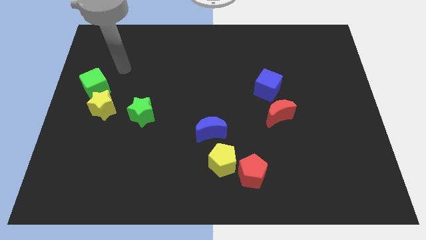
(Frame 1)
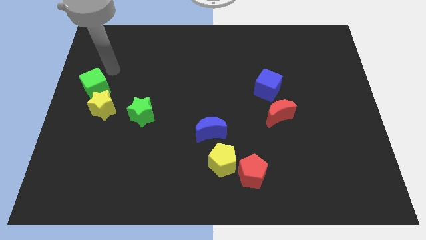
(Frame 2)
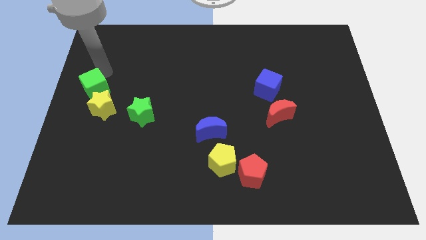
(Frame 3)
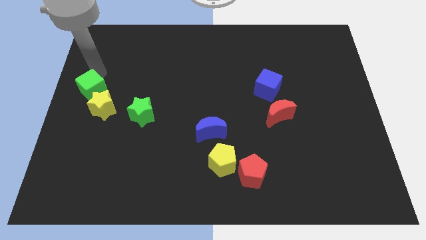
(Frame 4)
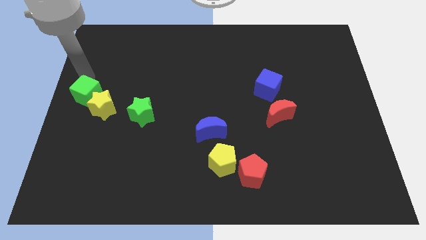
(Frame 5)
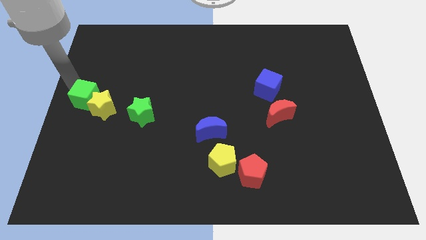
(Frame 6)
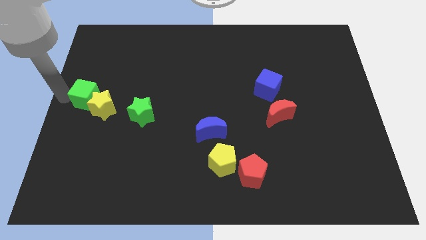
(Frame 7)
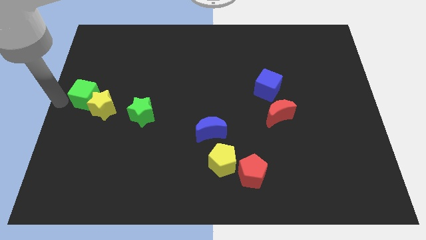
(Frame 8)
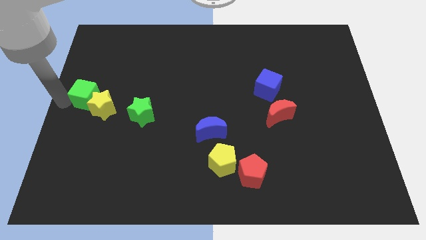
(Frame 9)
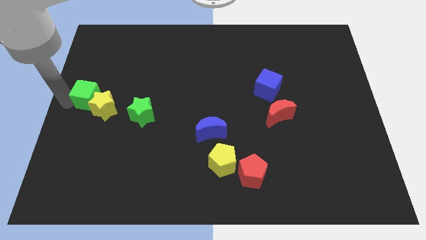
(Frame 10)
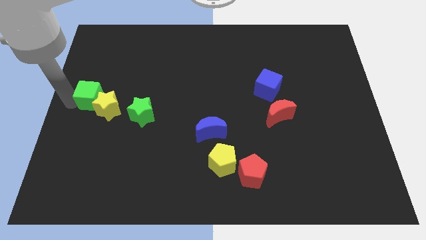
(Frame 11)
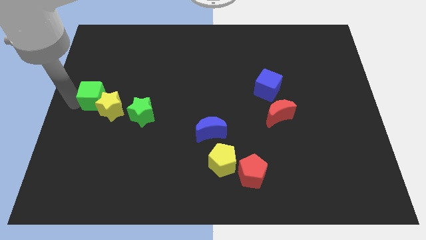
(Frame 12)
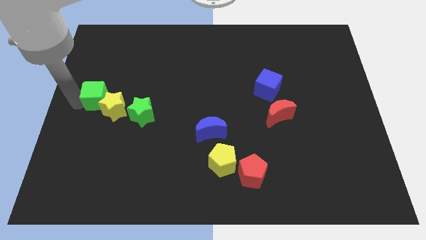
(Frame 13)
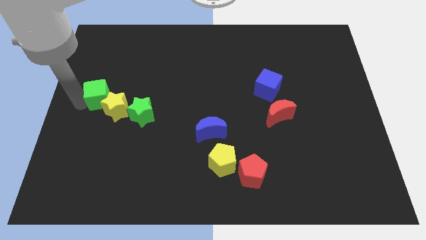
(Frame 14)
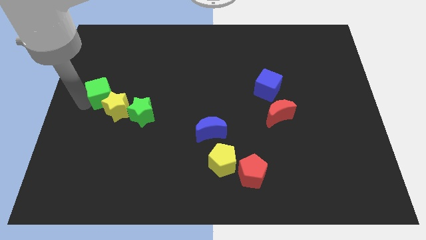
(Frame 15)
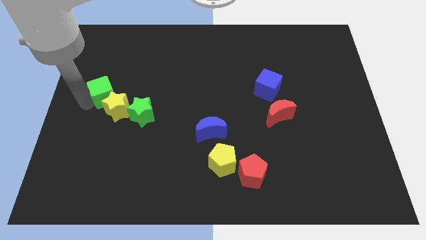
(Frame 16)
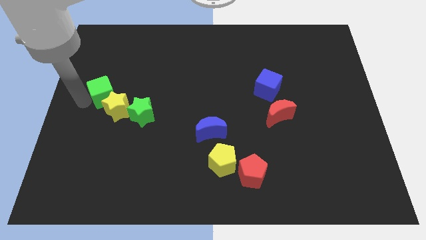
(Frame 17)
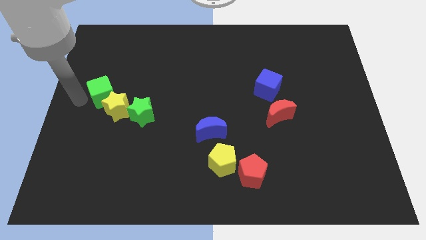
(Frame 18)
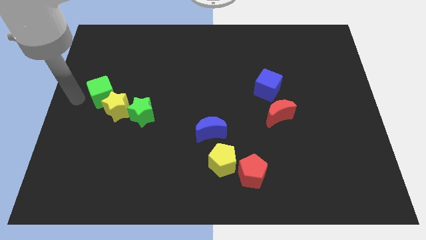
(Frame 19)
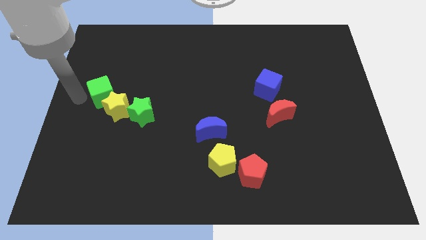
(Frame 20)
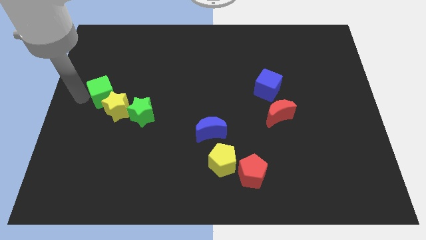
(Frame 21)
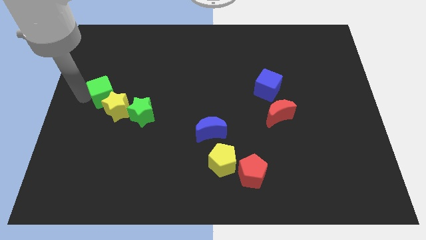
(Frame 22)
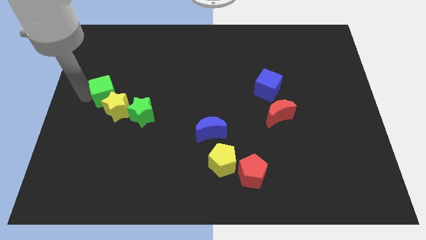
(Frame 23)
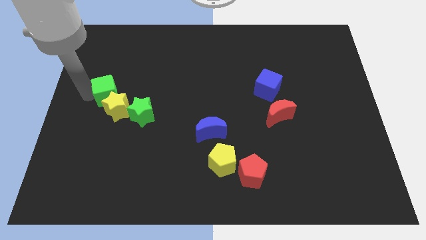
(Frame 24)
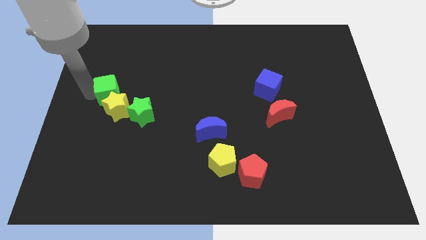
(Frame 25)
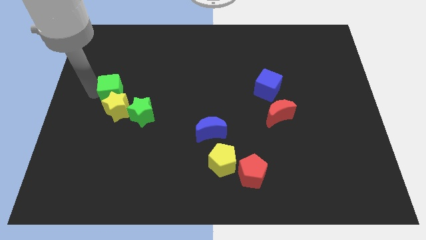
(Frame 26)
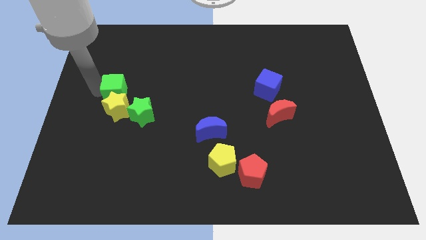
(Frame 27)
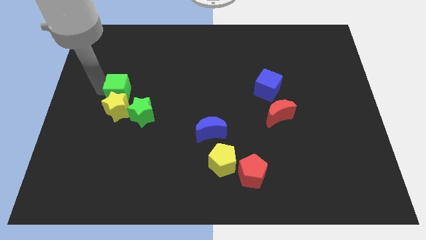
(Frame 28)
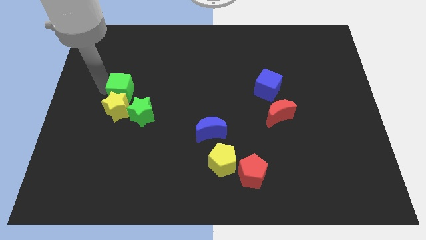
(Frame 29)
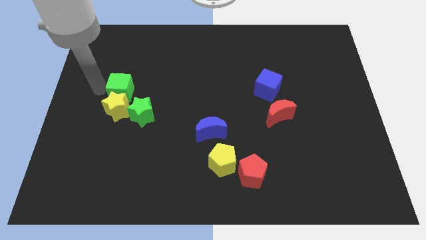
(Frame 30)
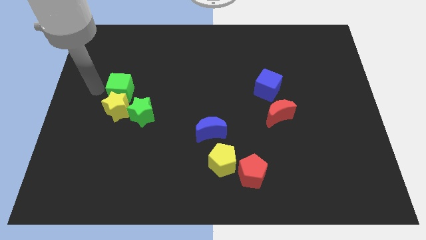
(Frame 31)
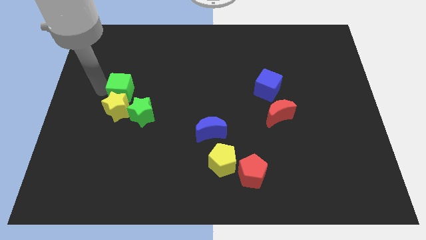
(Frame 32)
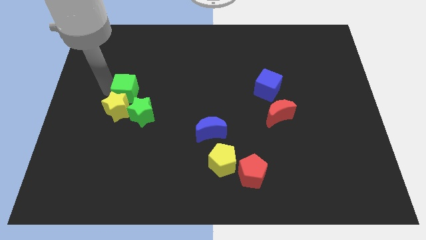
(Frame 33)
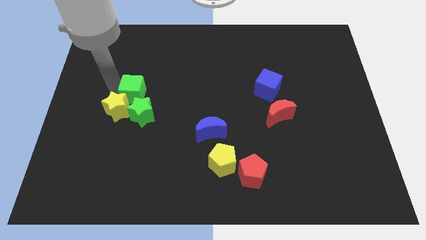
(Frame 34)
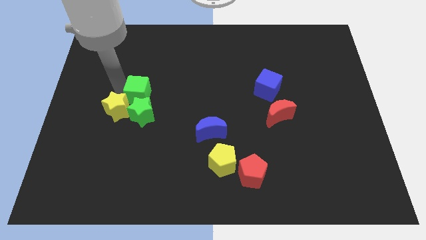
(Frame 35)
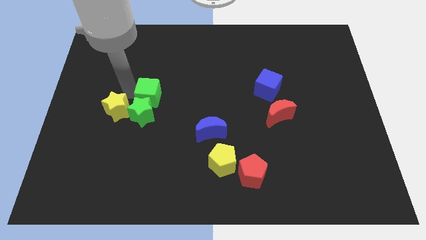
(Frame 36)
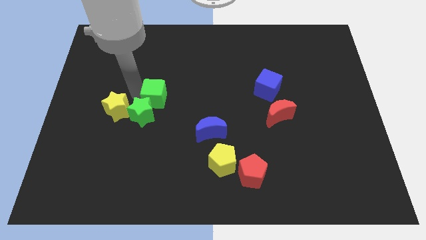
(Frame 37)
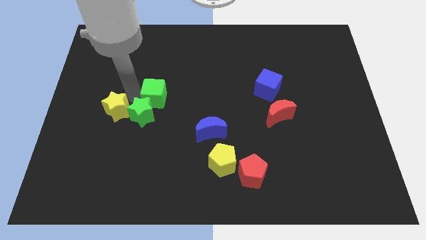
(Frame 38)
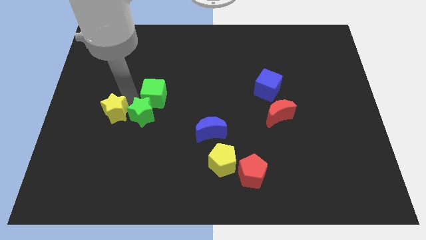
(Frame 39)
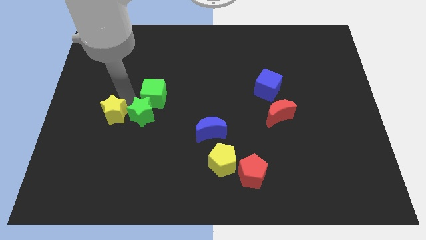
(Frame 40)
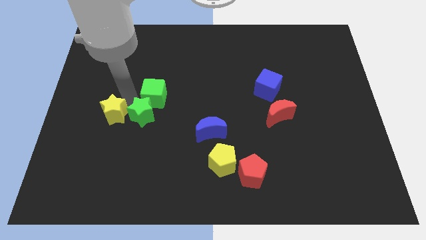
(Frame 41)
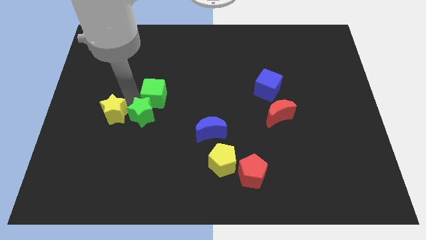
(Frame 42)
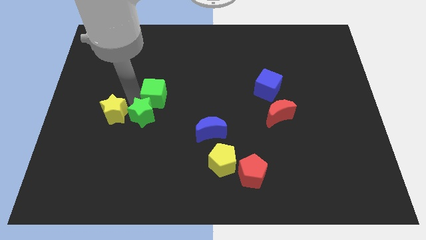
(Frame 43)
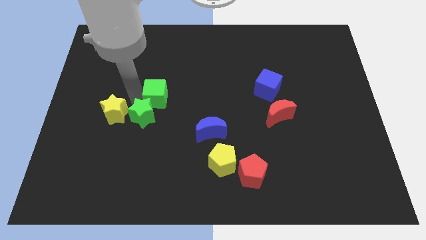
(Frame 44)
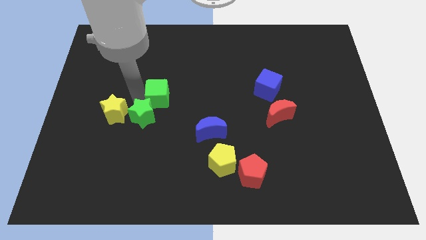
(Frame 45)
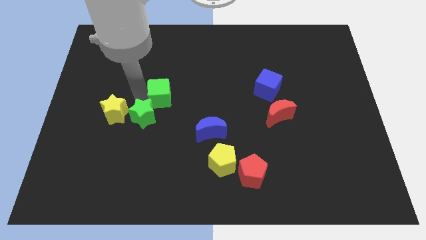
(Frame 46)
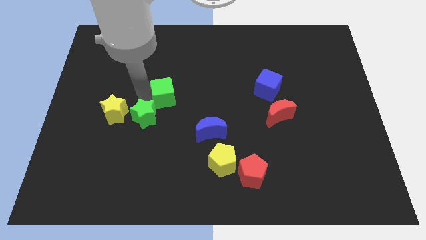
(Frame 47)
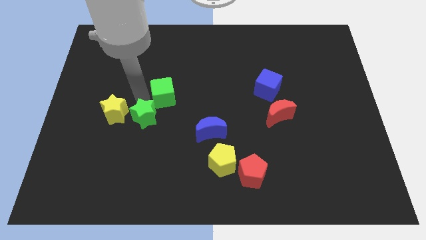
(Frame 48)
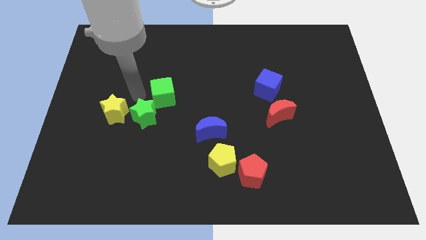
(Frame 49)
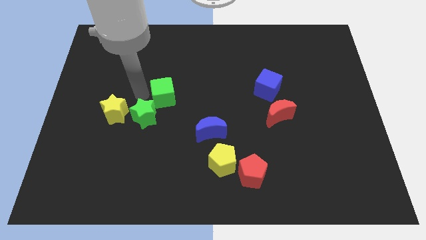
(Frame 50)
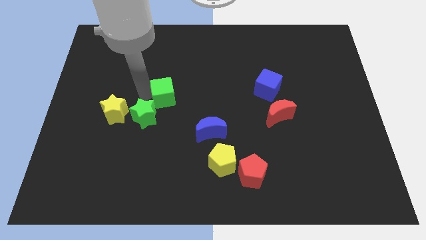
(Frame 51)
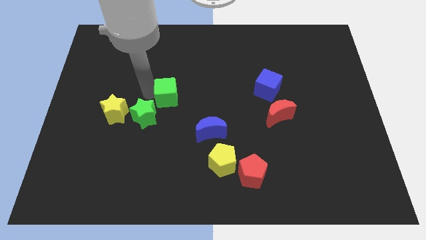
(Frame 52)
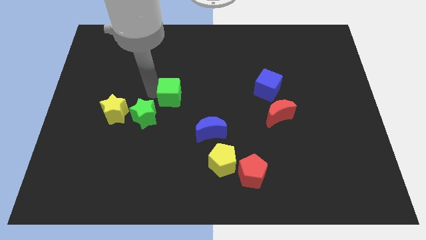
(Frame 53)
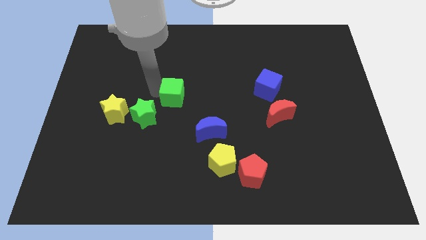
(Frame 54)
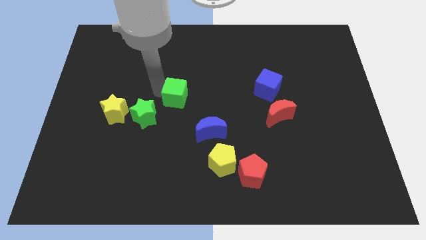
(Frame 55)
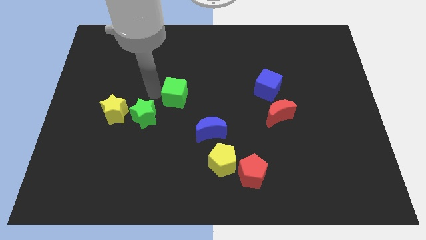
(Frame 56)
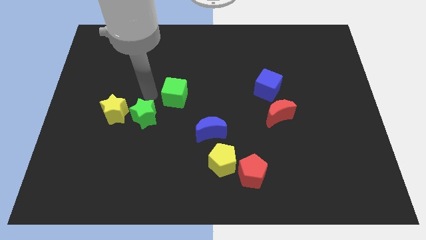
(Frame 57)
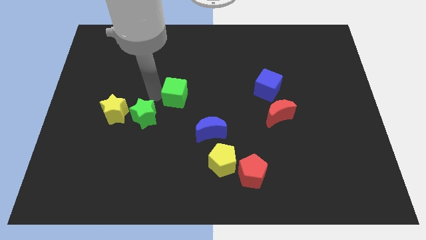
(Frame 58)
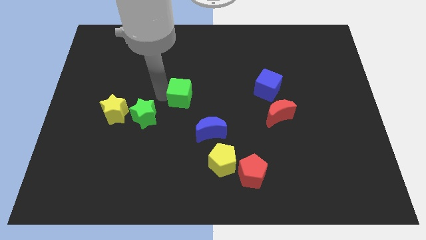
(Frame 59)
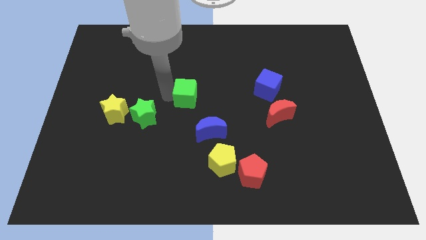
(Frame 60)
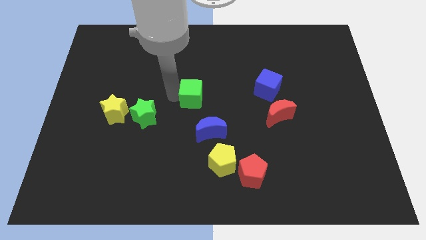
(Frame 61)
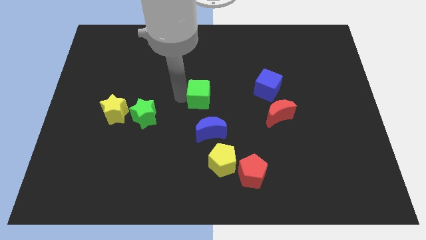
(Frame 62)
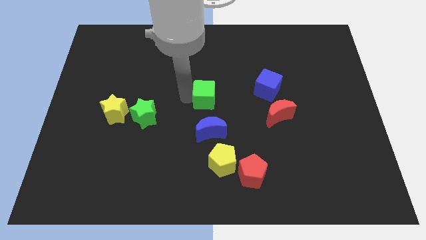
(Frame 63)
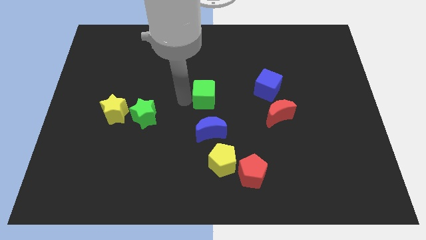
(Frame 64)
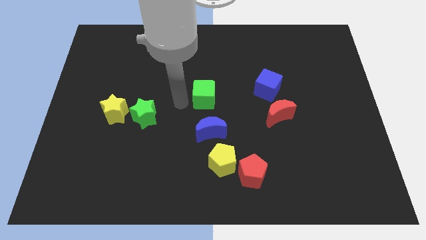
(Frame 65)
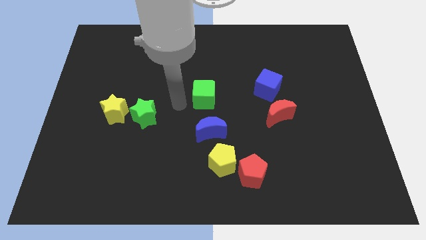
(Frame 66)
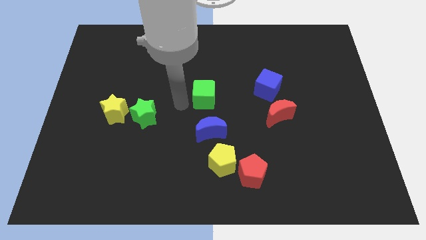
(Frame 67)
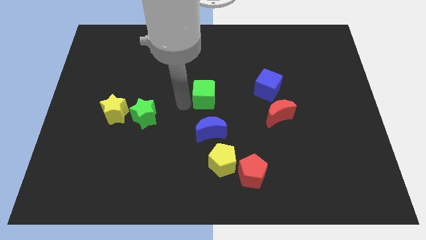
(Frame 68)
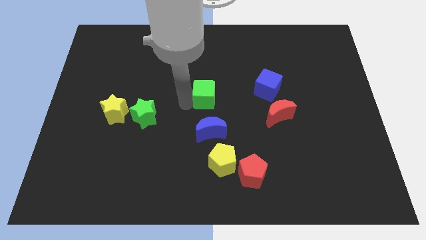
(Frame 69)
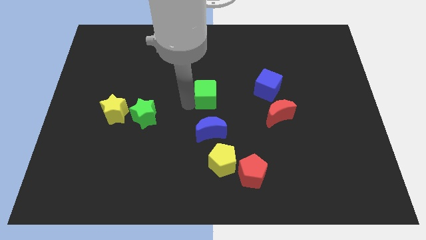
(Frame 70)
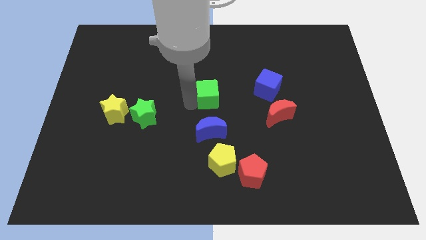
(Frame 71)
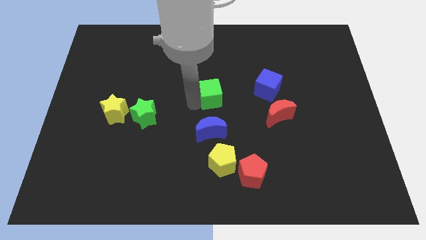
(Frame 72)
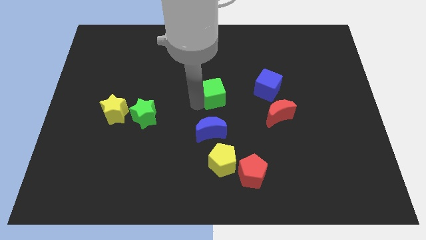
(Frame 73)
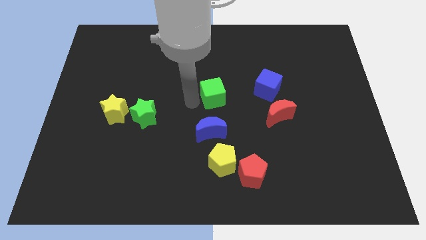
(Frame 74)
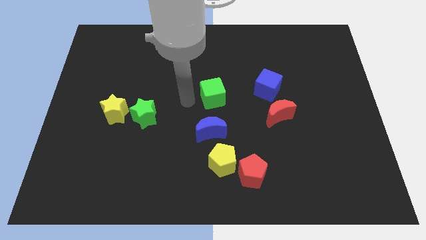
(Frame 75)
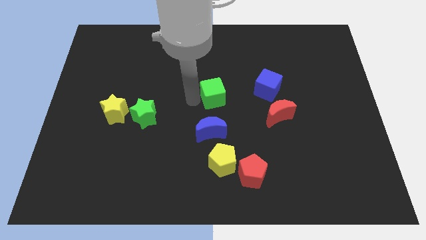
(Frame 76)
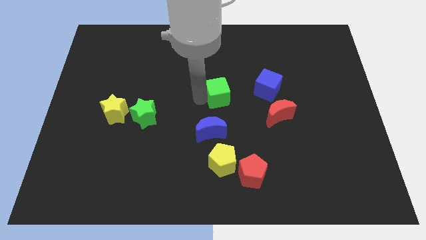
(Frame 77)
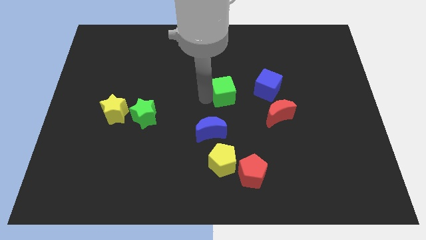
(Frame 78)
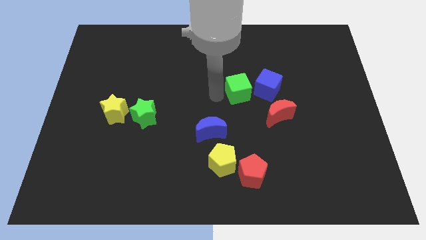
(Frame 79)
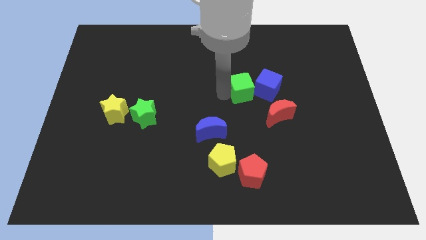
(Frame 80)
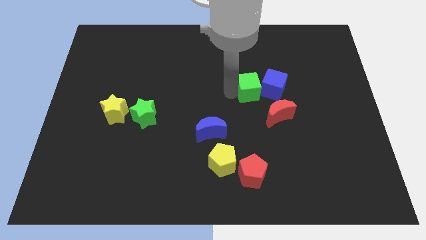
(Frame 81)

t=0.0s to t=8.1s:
push the green cube close to the blue cube
